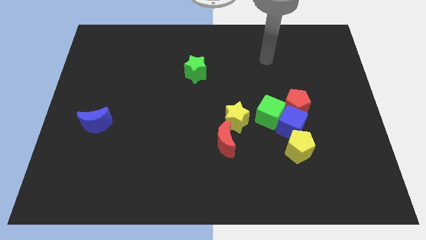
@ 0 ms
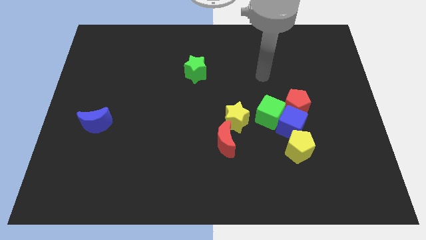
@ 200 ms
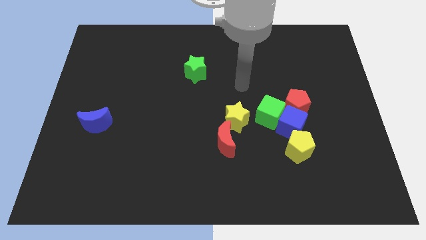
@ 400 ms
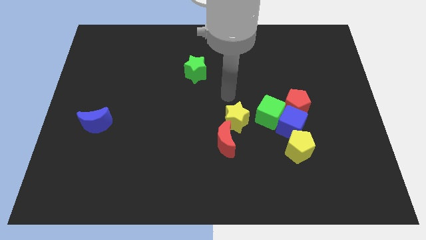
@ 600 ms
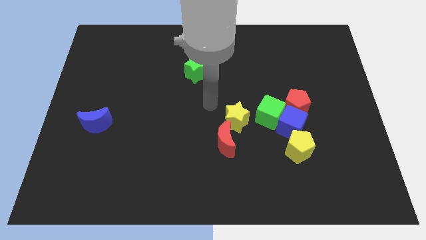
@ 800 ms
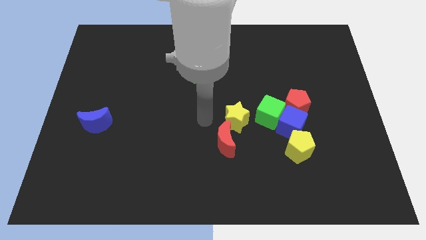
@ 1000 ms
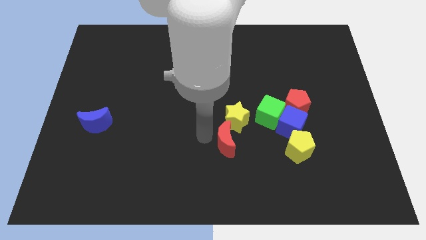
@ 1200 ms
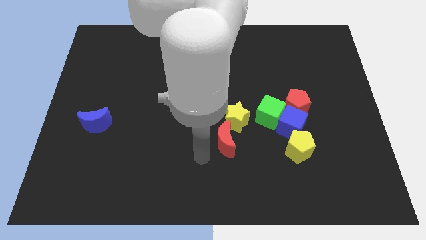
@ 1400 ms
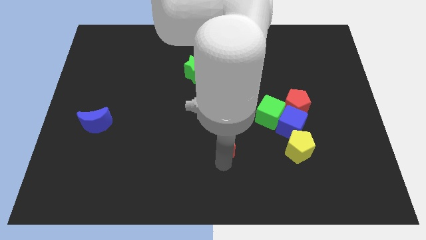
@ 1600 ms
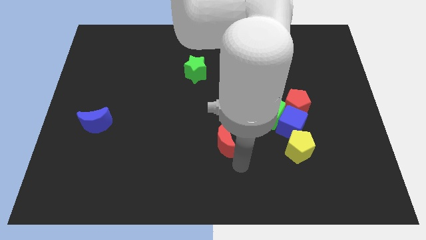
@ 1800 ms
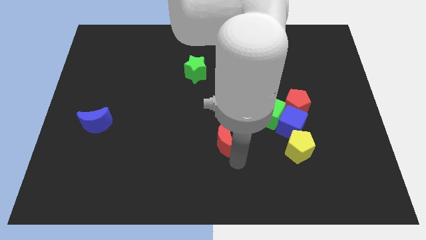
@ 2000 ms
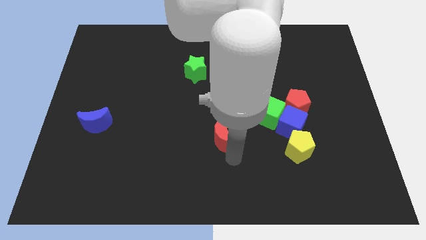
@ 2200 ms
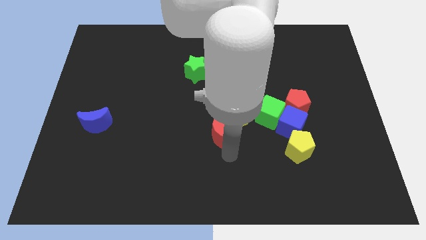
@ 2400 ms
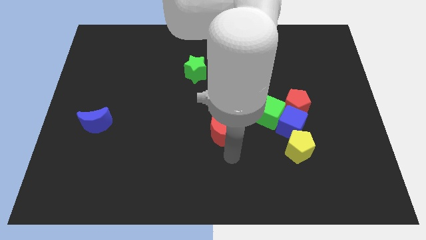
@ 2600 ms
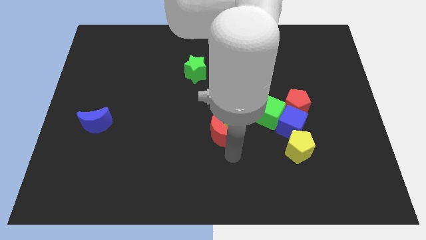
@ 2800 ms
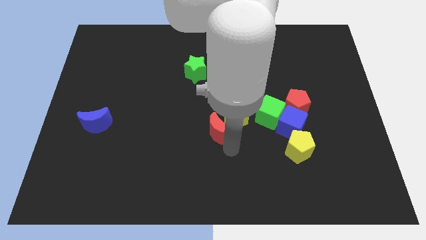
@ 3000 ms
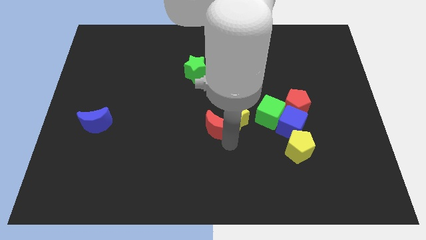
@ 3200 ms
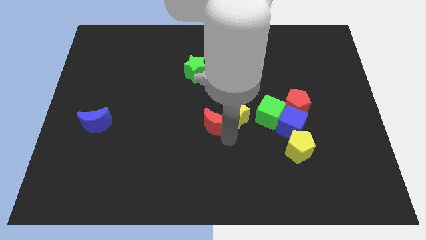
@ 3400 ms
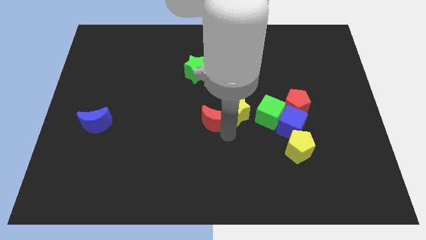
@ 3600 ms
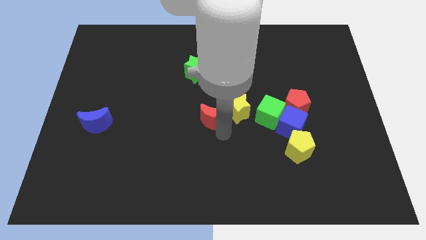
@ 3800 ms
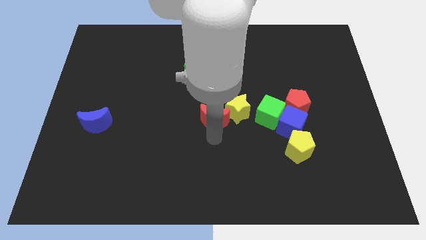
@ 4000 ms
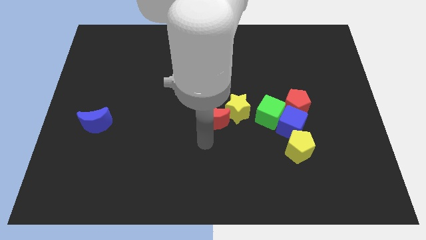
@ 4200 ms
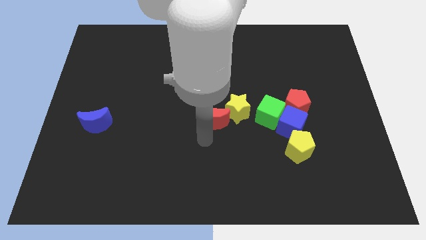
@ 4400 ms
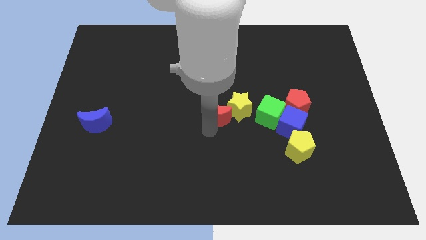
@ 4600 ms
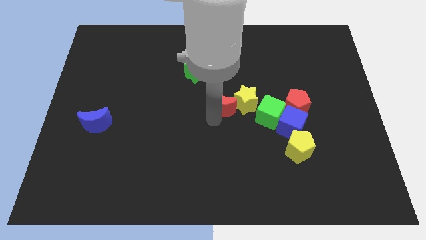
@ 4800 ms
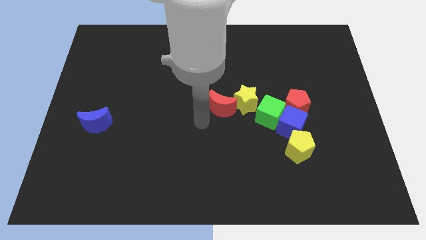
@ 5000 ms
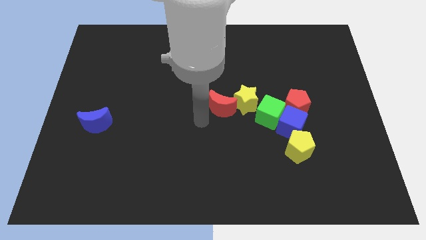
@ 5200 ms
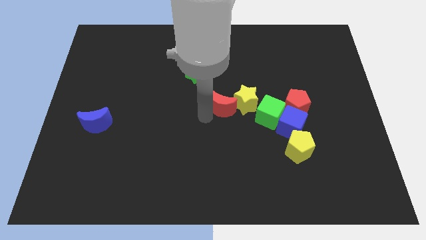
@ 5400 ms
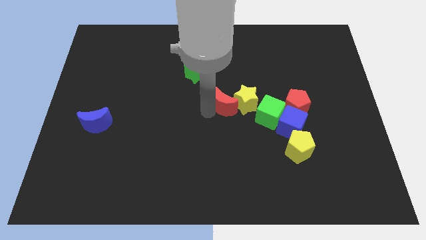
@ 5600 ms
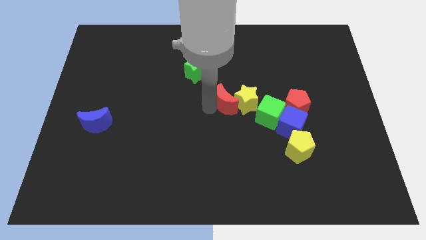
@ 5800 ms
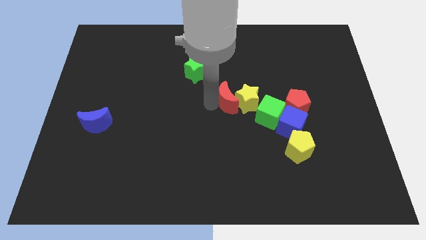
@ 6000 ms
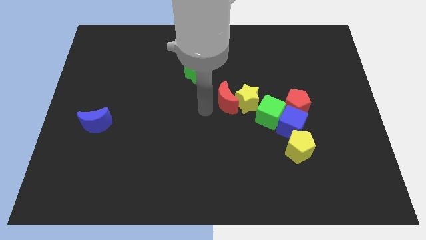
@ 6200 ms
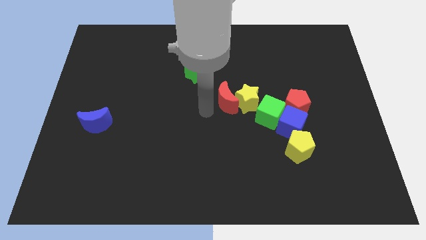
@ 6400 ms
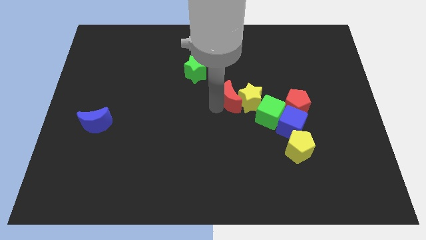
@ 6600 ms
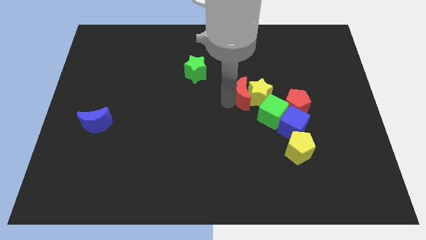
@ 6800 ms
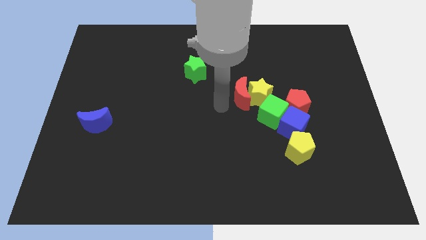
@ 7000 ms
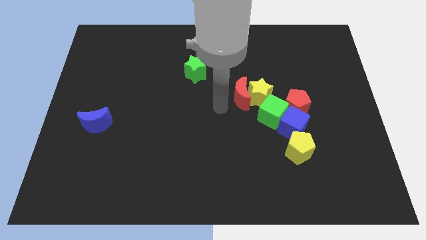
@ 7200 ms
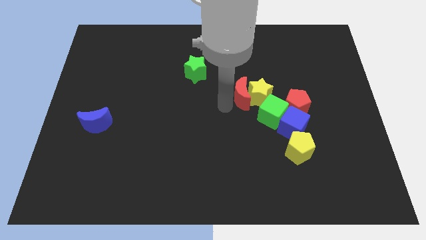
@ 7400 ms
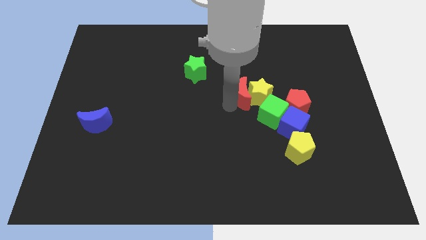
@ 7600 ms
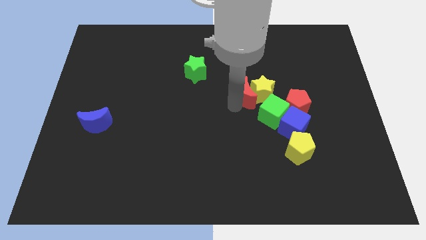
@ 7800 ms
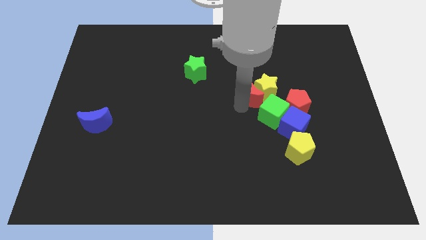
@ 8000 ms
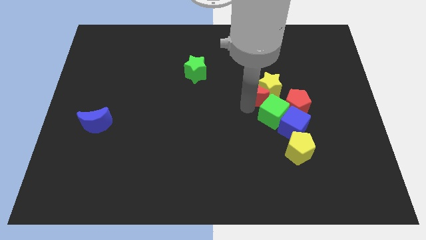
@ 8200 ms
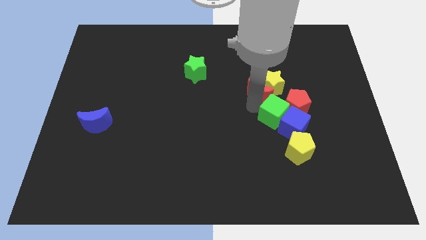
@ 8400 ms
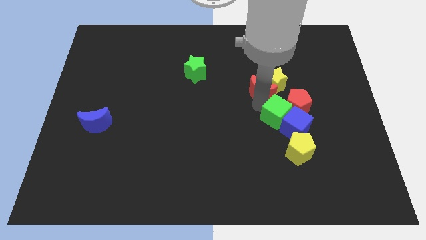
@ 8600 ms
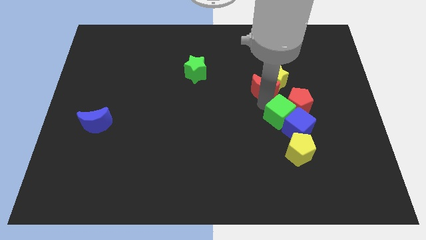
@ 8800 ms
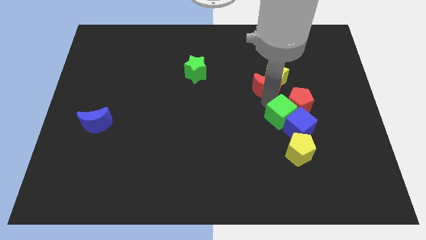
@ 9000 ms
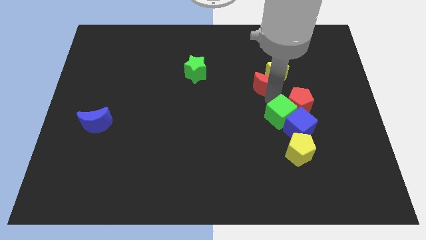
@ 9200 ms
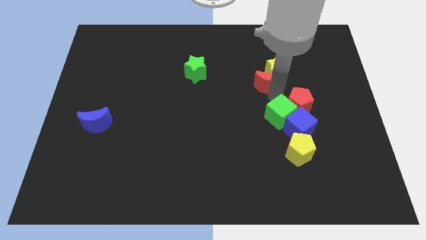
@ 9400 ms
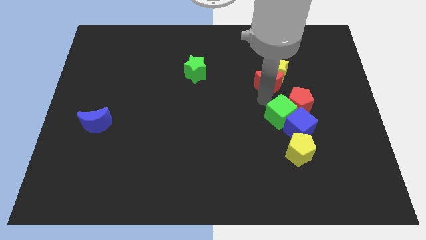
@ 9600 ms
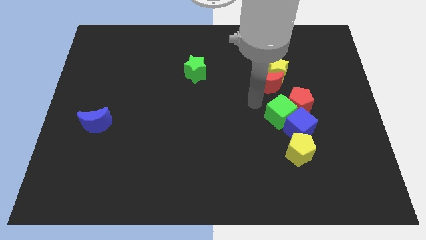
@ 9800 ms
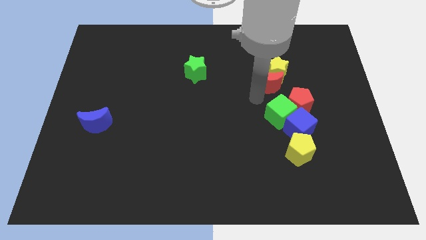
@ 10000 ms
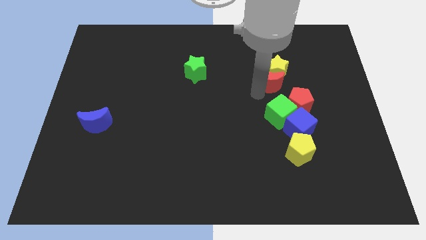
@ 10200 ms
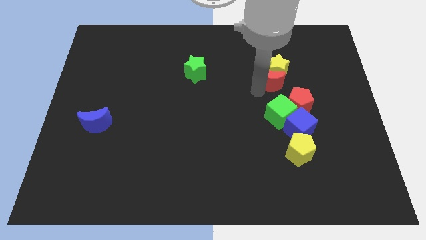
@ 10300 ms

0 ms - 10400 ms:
push the red moon diagonally upwards and to the right

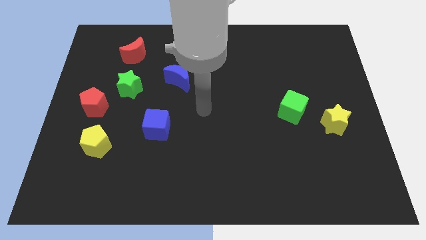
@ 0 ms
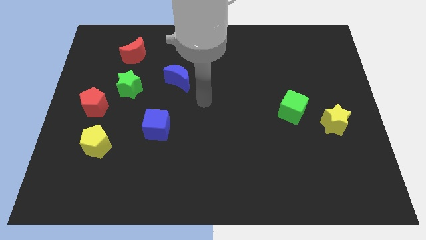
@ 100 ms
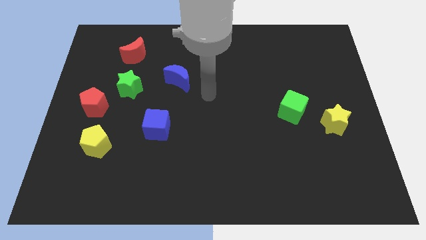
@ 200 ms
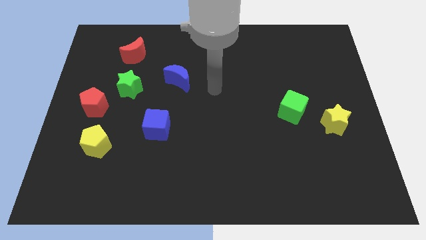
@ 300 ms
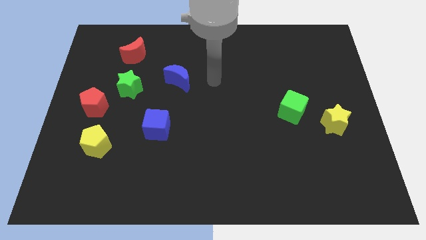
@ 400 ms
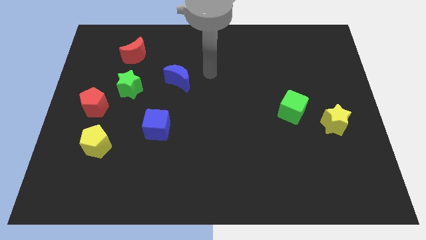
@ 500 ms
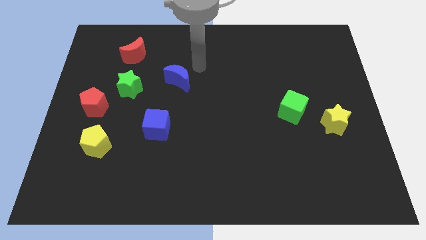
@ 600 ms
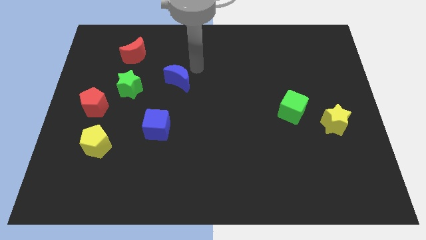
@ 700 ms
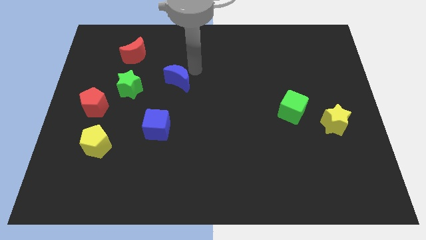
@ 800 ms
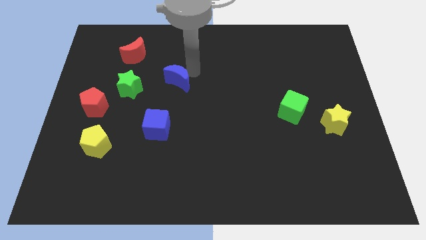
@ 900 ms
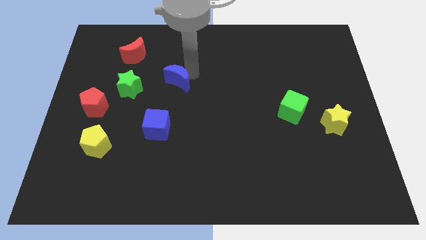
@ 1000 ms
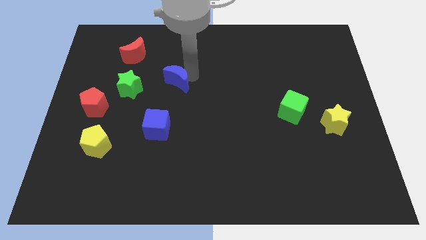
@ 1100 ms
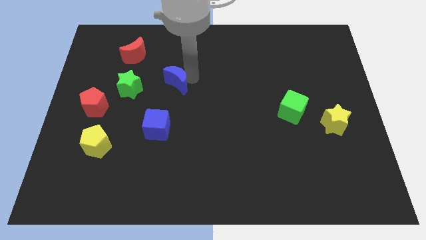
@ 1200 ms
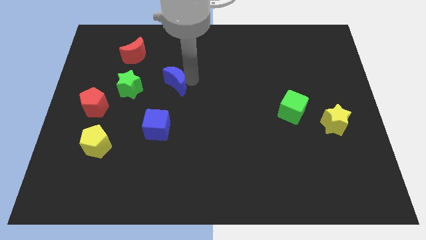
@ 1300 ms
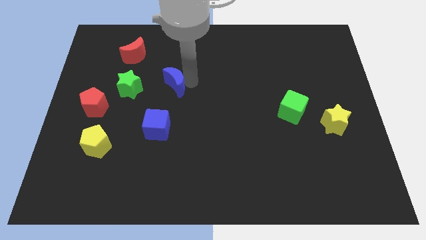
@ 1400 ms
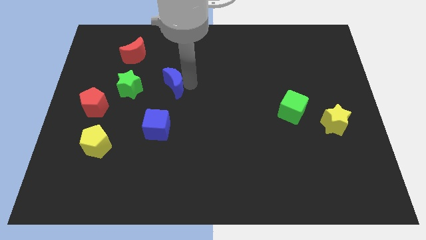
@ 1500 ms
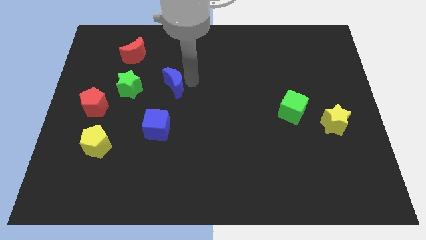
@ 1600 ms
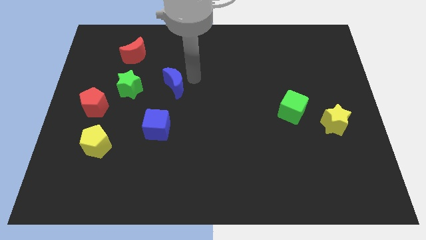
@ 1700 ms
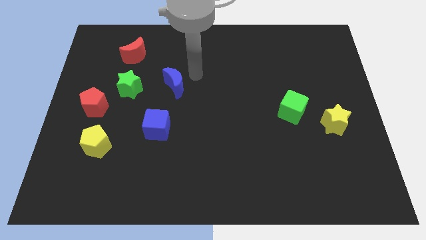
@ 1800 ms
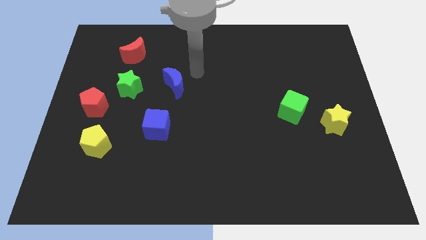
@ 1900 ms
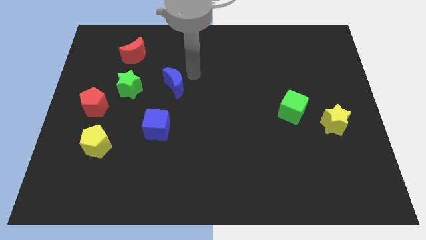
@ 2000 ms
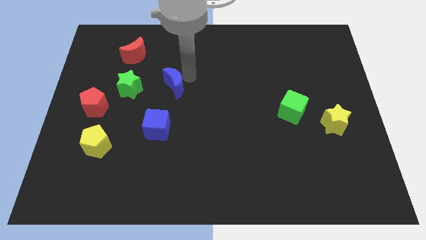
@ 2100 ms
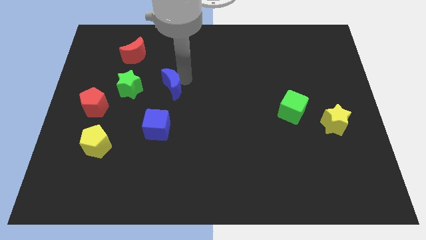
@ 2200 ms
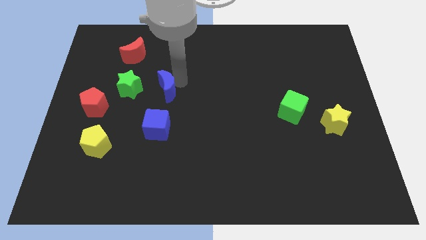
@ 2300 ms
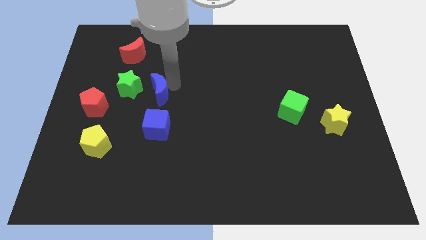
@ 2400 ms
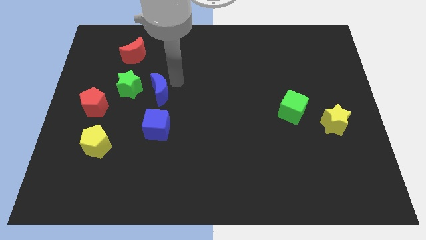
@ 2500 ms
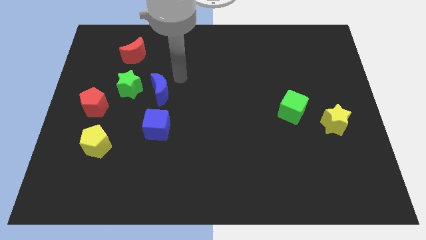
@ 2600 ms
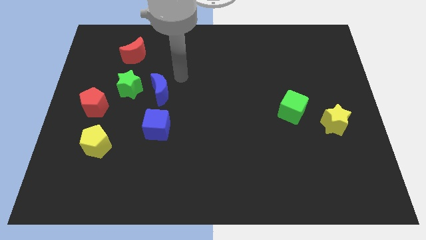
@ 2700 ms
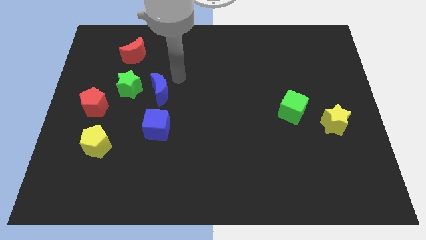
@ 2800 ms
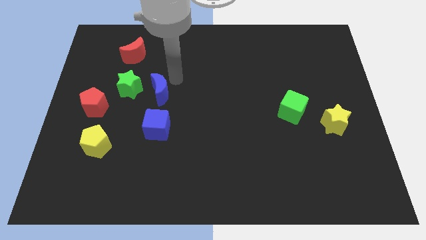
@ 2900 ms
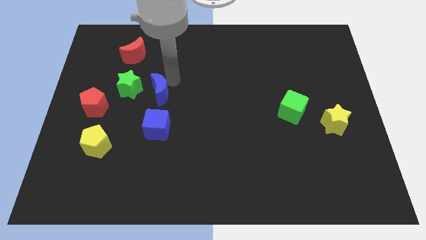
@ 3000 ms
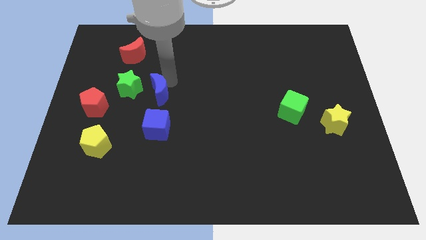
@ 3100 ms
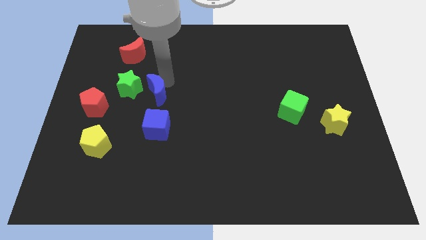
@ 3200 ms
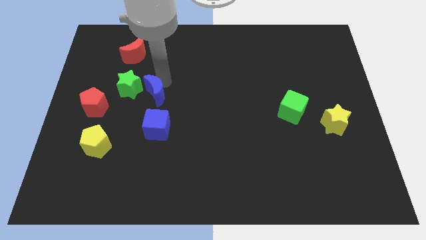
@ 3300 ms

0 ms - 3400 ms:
slide the blue moon downwards and left a bit
